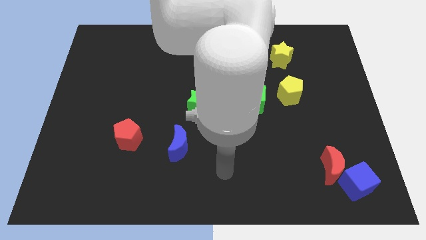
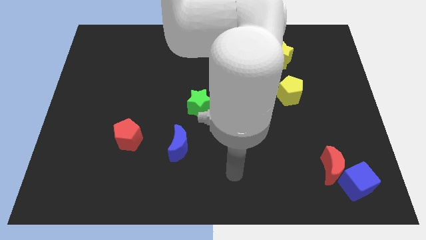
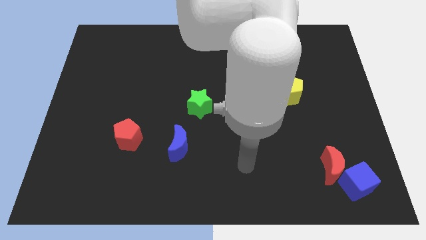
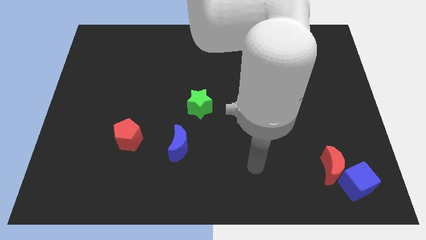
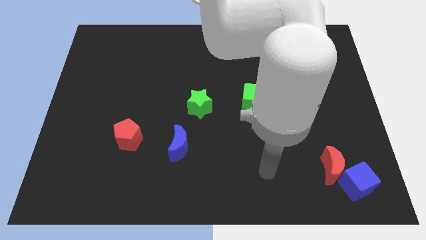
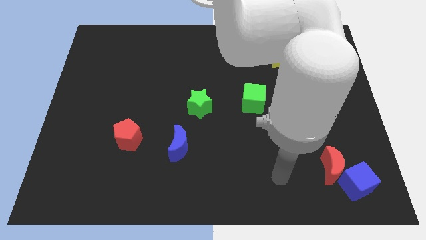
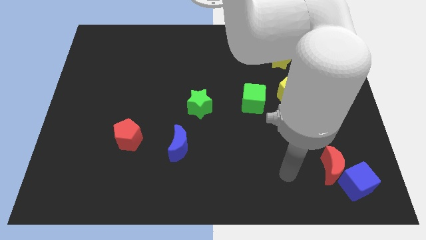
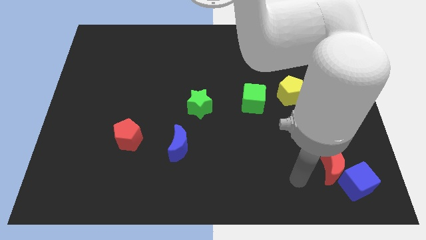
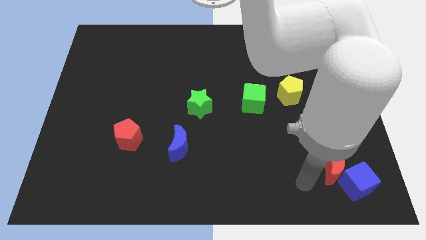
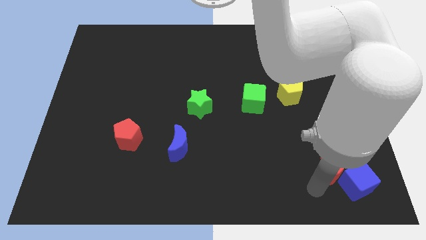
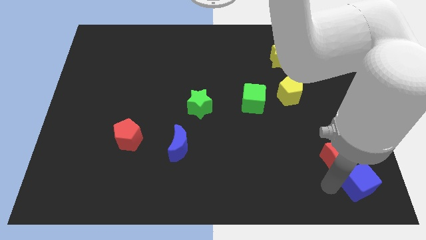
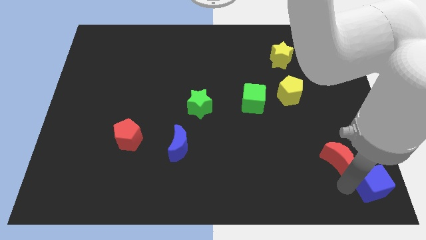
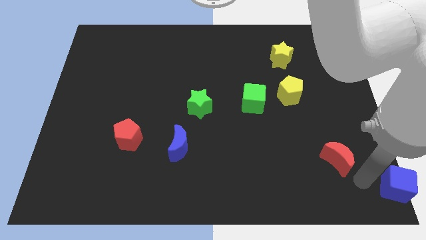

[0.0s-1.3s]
move the red moon away from the blue cube

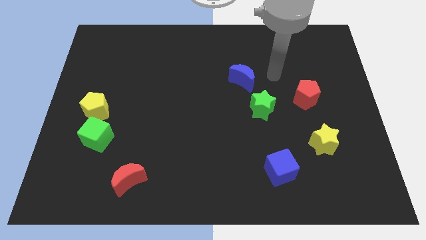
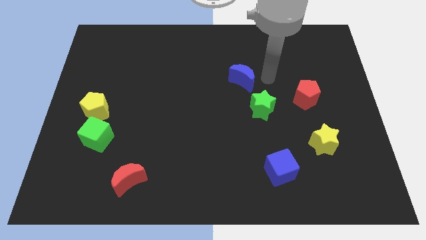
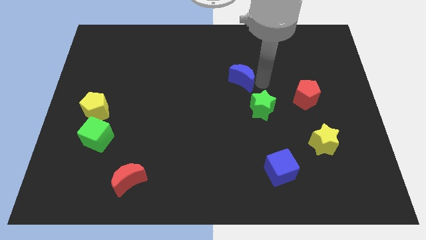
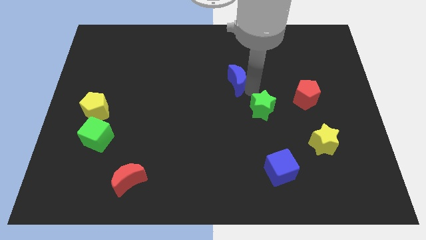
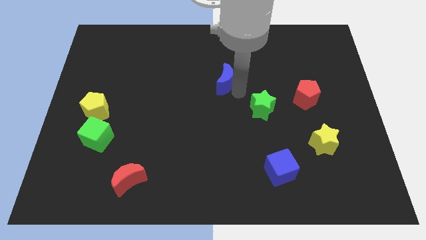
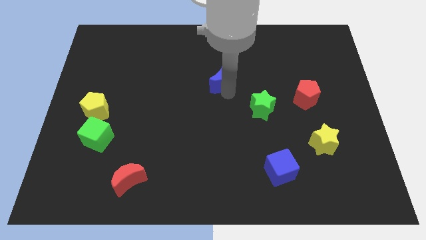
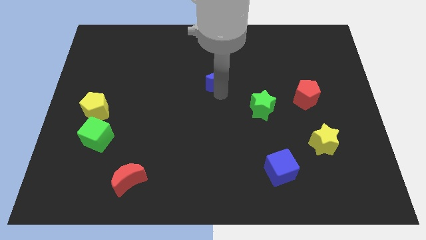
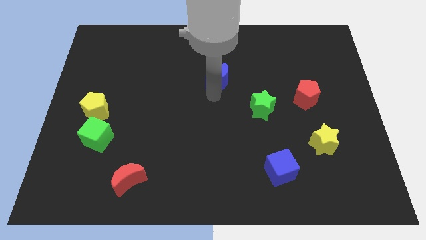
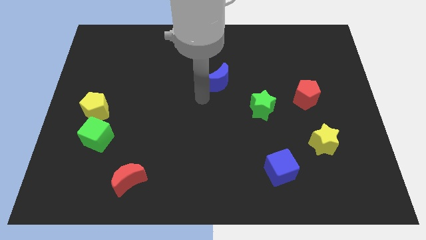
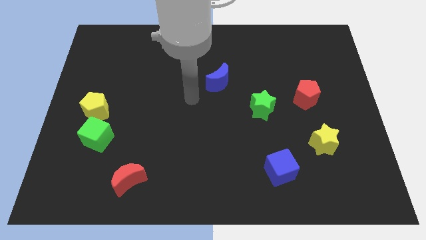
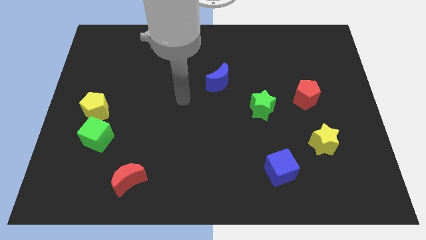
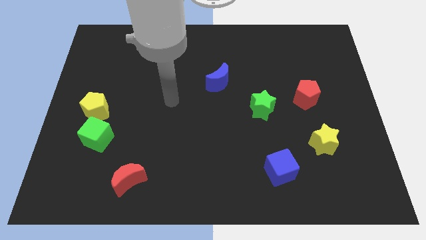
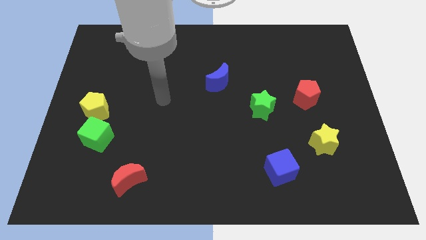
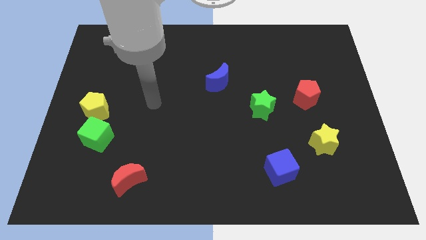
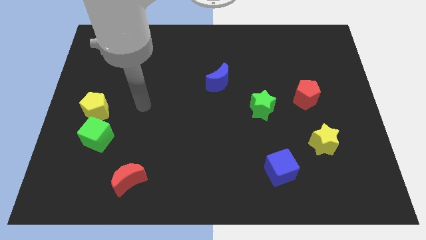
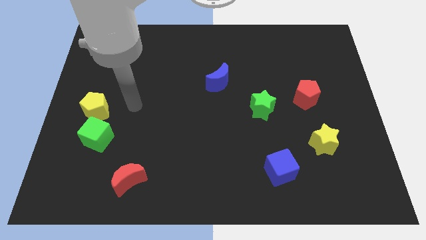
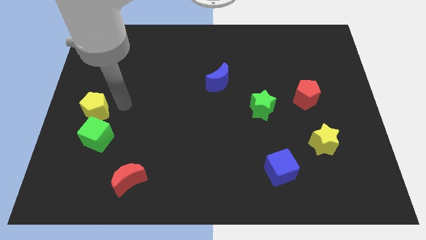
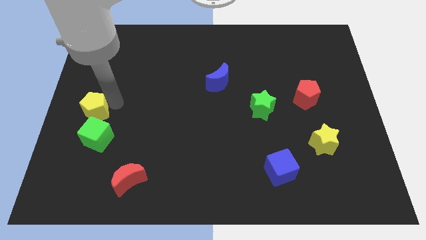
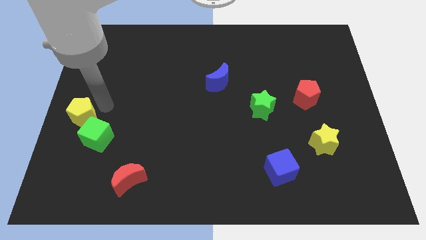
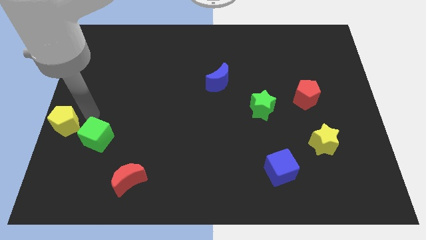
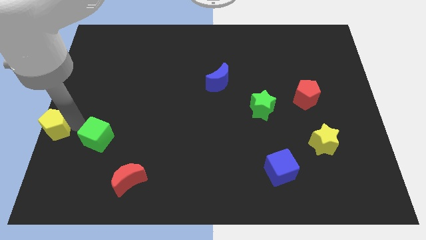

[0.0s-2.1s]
separate the green cube from the yellow pentagon

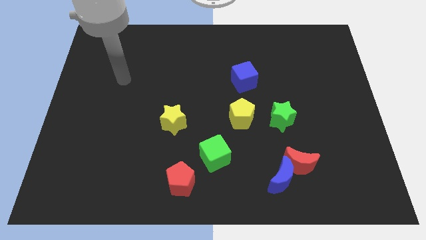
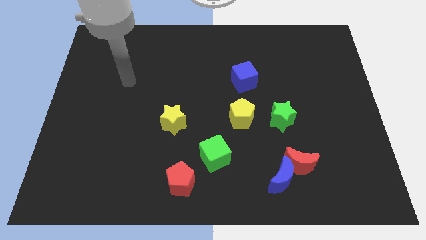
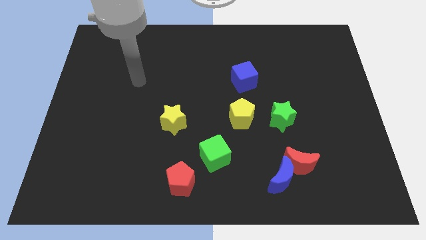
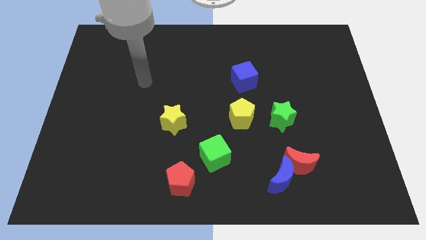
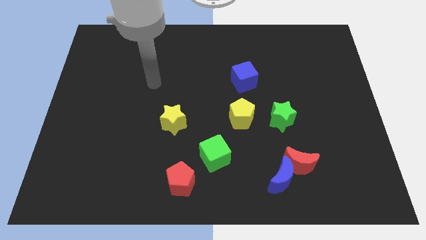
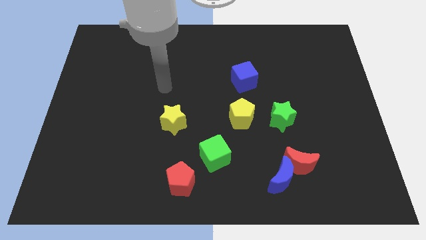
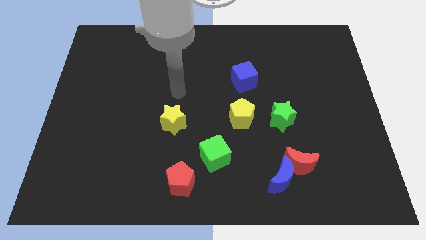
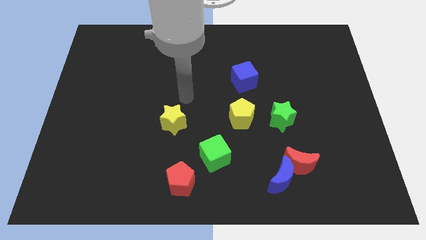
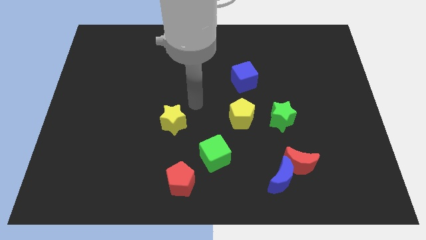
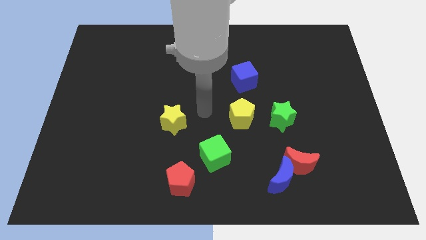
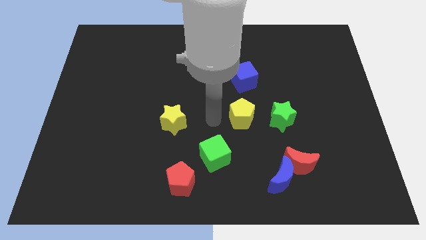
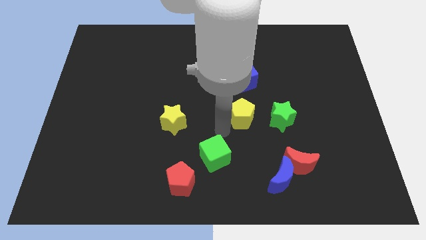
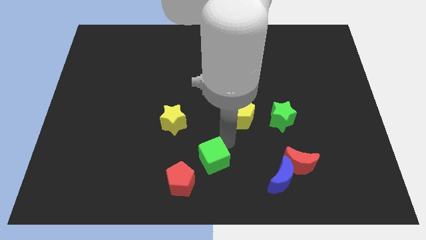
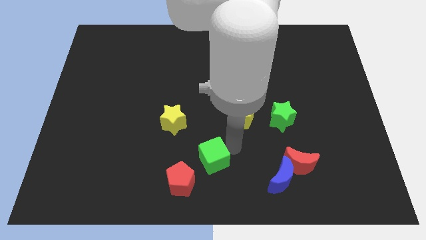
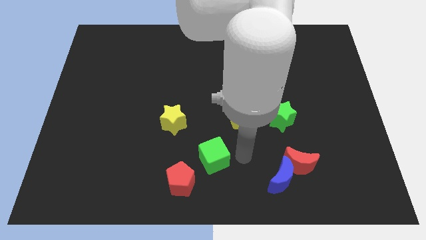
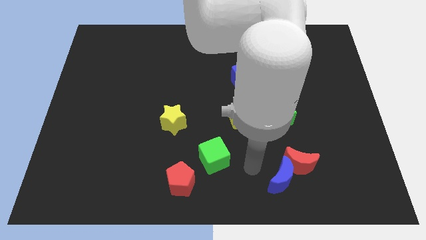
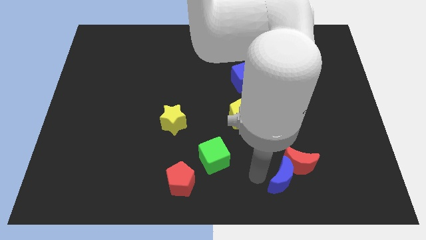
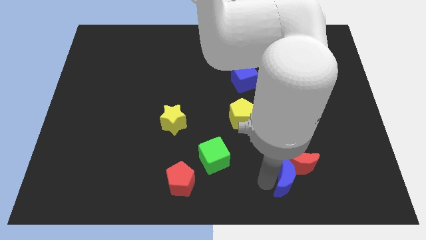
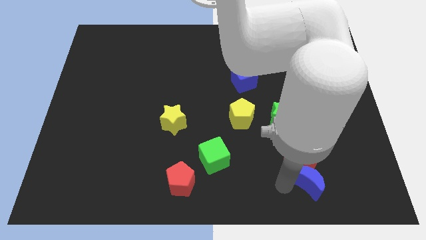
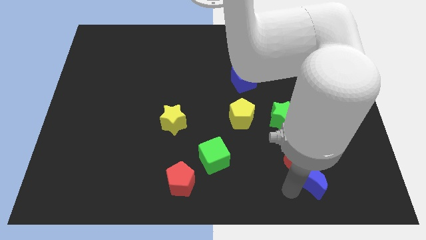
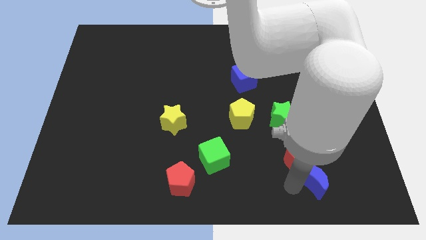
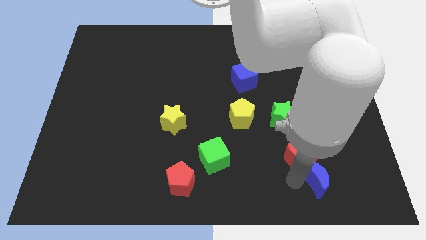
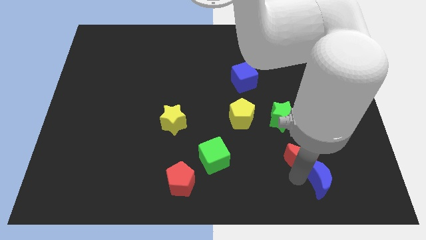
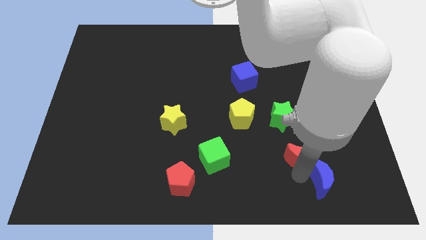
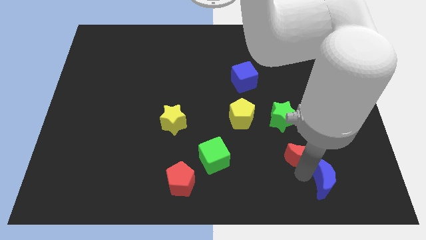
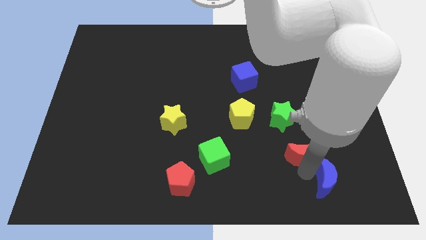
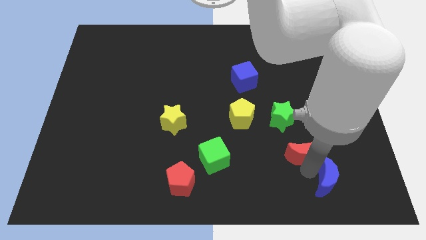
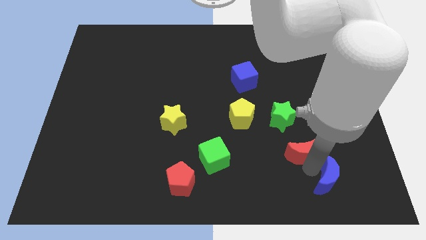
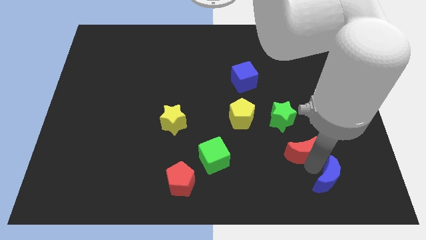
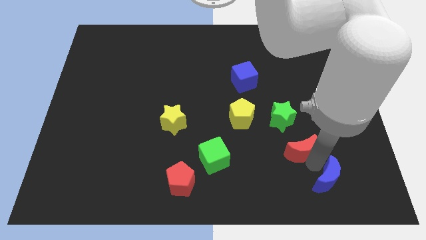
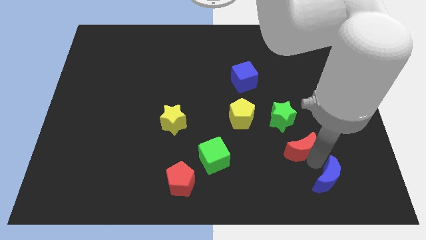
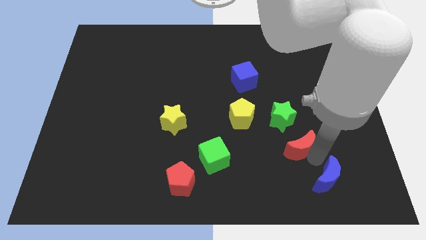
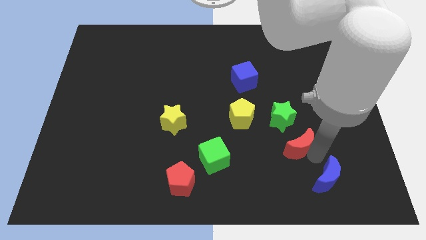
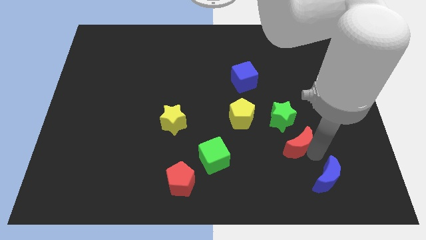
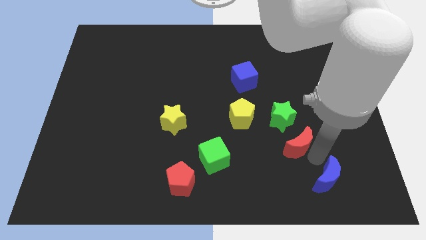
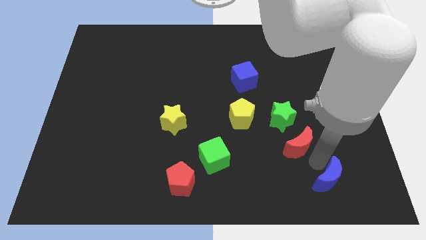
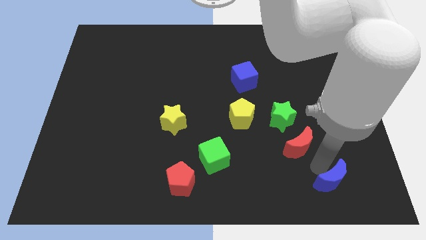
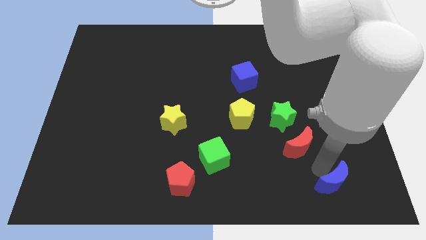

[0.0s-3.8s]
separate the red moon from the blue moon

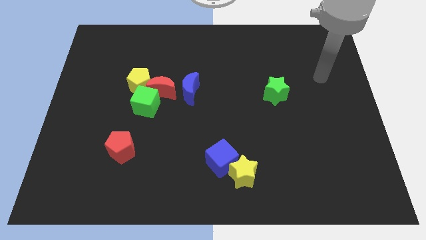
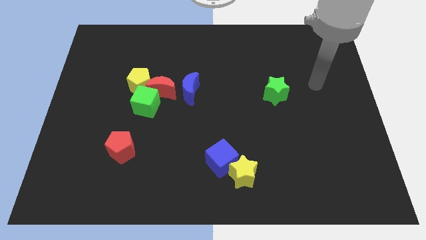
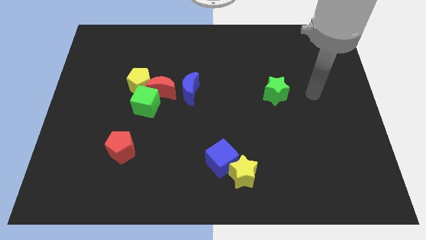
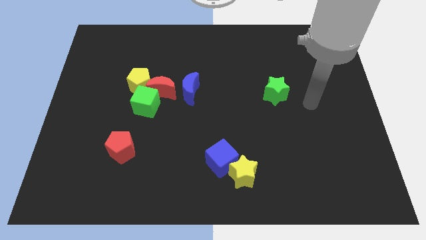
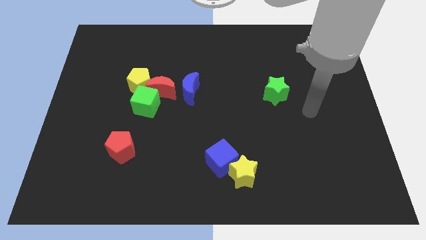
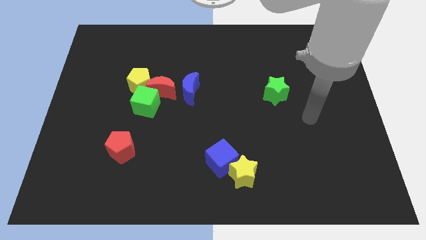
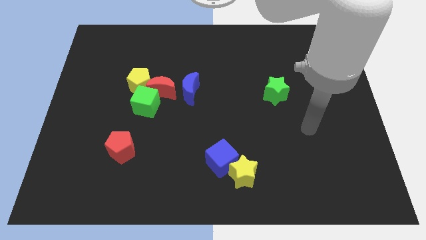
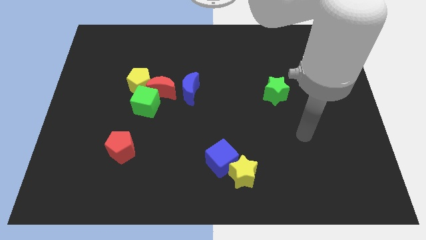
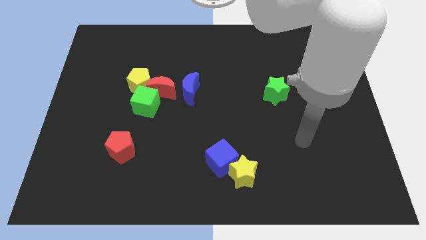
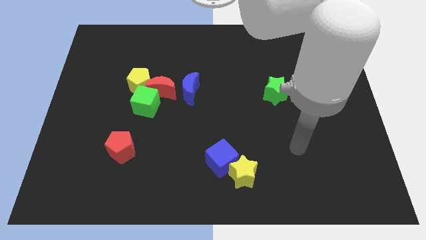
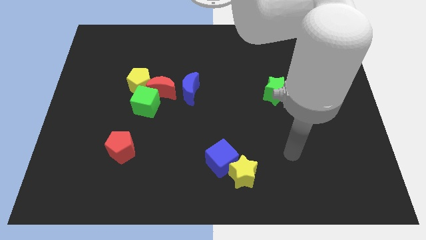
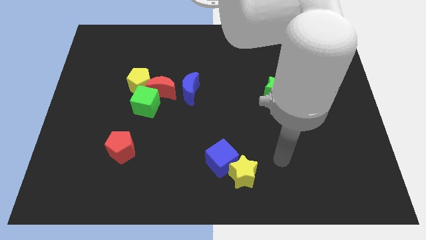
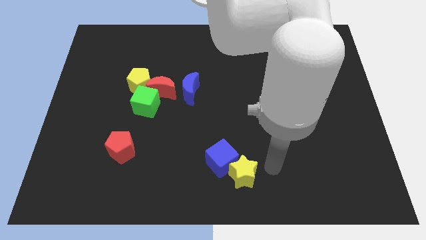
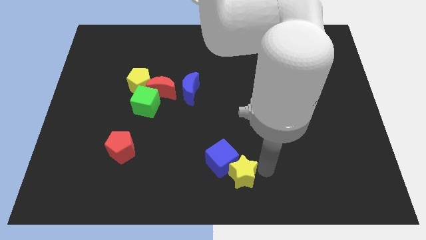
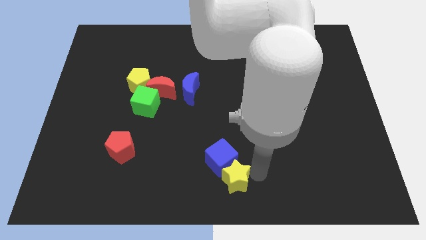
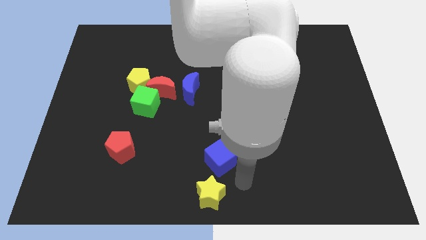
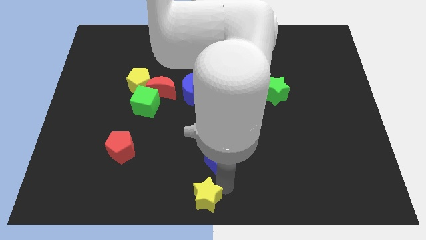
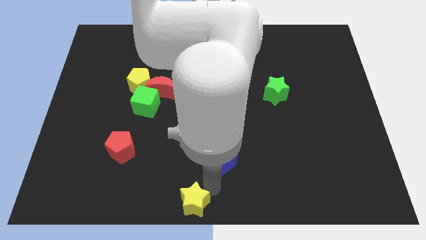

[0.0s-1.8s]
move the blue cube away from the yellow star

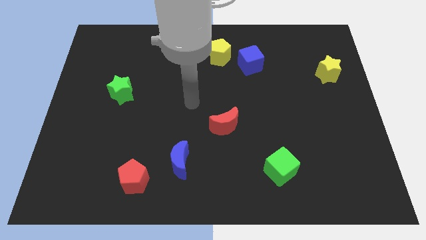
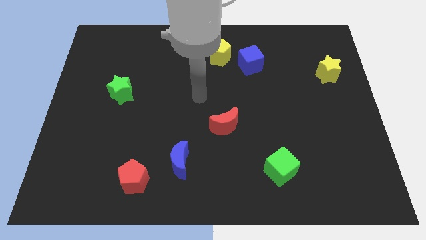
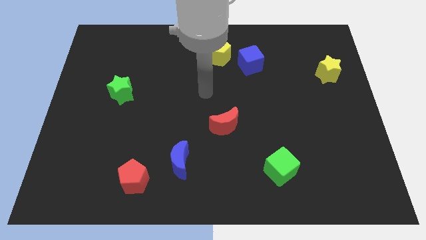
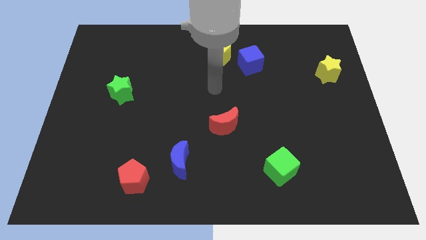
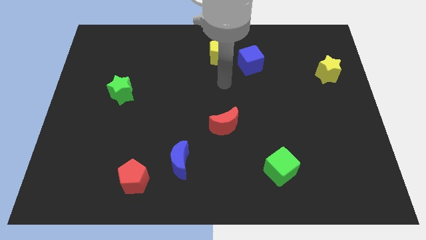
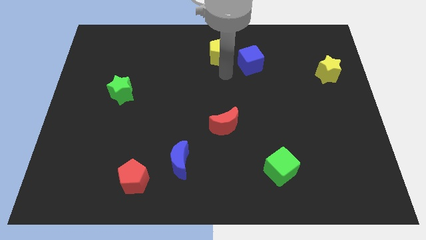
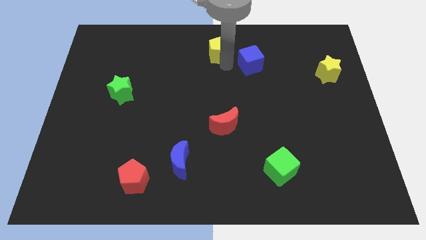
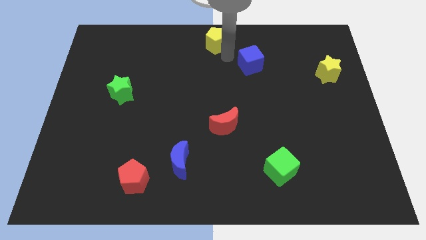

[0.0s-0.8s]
separate the blue cube from the yellow pentagon
